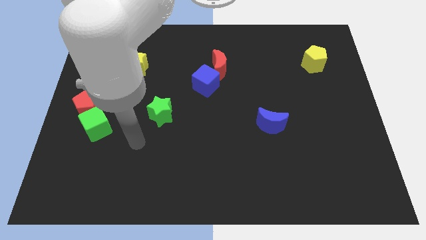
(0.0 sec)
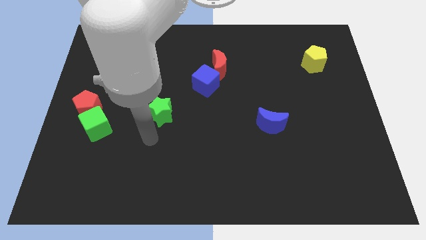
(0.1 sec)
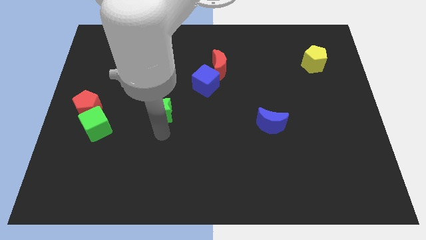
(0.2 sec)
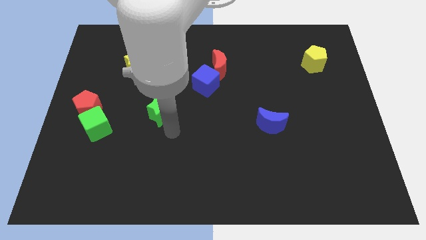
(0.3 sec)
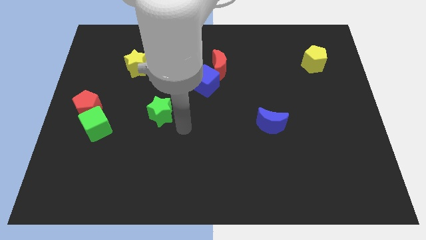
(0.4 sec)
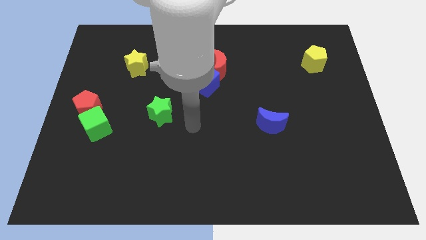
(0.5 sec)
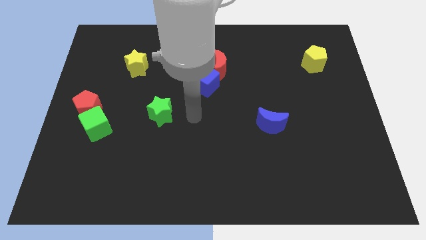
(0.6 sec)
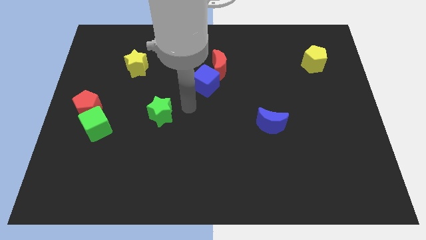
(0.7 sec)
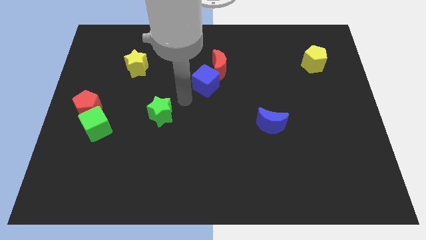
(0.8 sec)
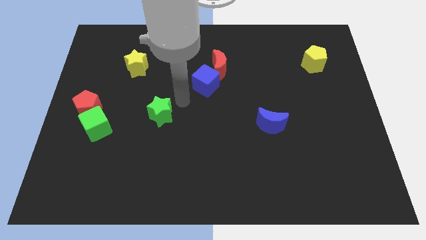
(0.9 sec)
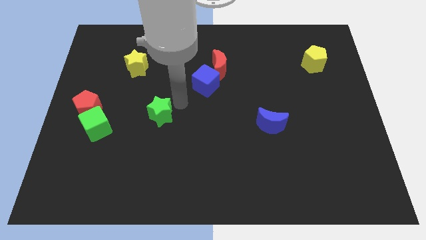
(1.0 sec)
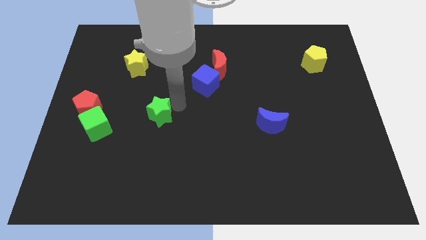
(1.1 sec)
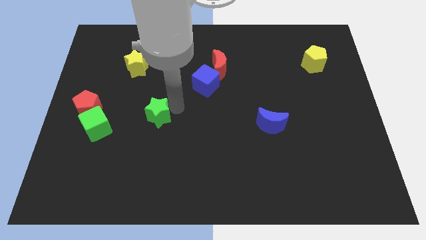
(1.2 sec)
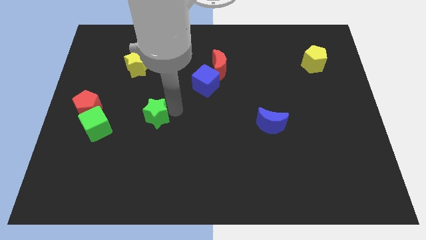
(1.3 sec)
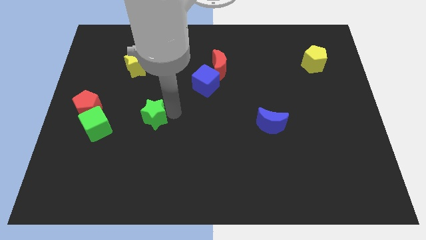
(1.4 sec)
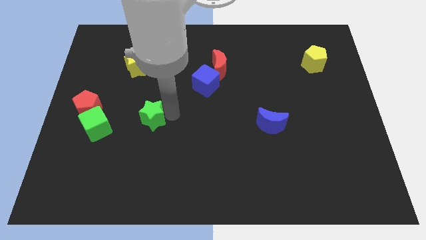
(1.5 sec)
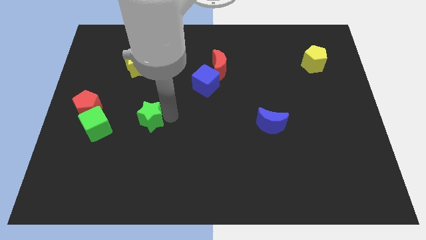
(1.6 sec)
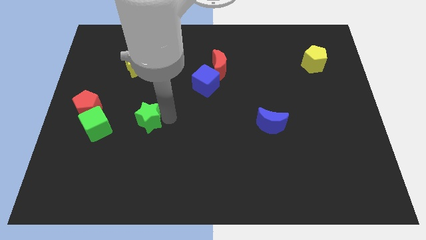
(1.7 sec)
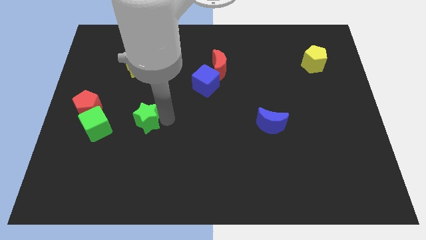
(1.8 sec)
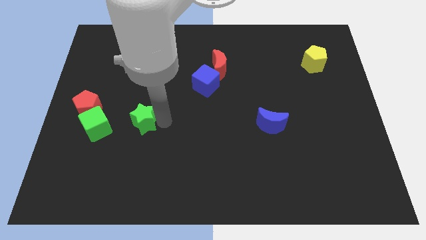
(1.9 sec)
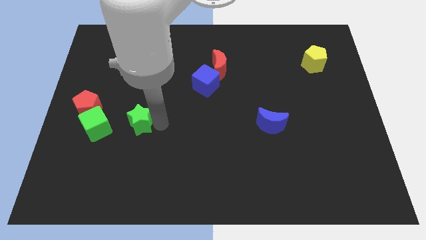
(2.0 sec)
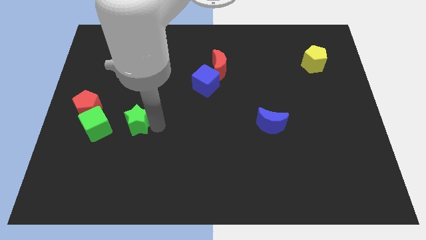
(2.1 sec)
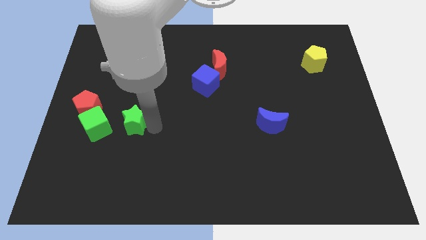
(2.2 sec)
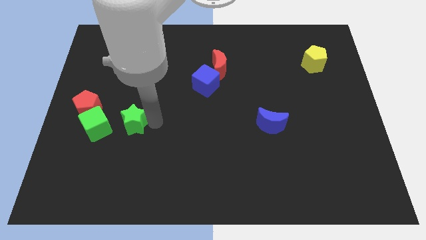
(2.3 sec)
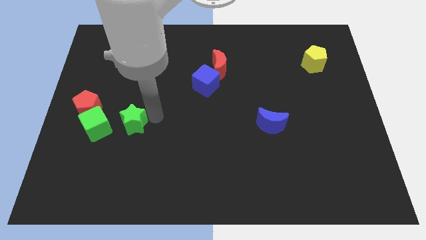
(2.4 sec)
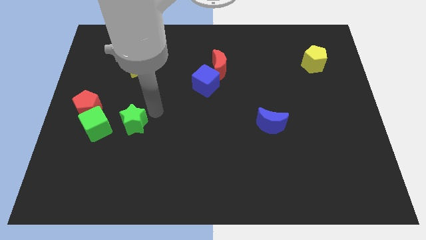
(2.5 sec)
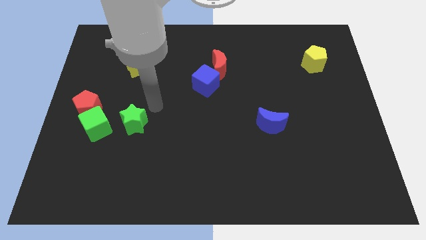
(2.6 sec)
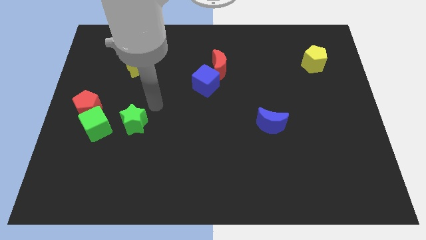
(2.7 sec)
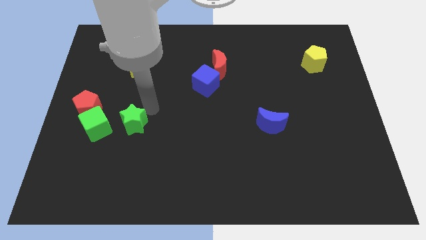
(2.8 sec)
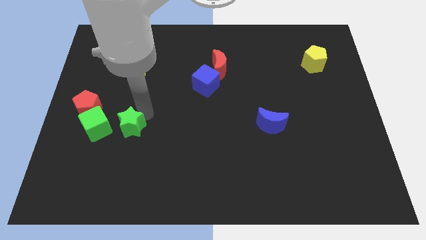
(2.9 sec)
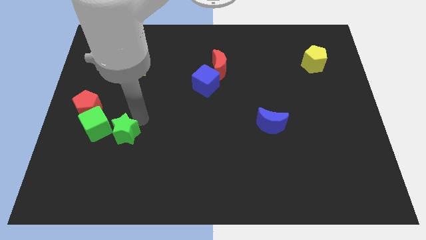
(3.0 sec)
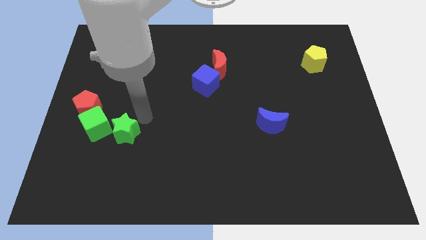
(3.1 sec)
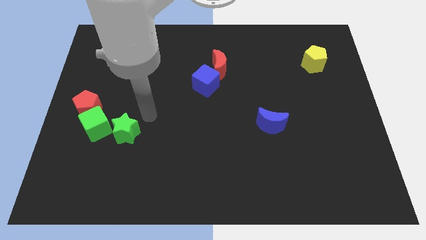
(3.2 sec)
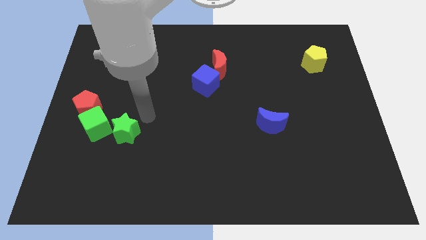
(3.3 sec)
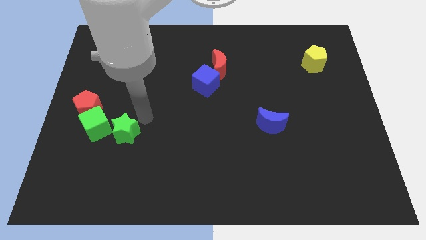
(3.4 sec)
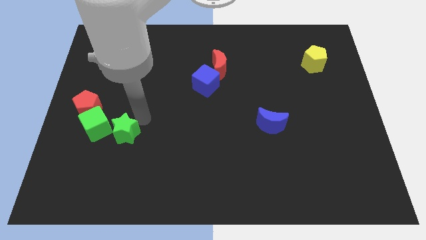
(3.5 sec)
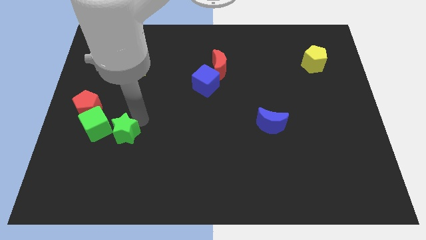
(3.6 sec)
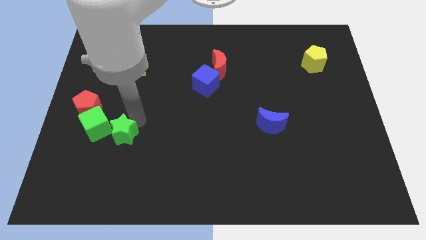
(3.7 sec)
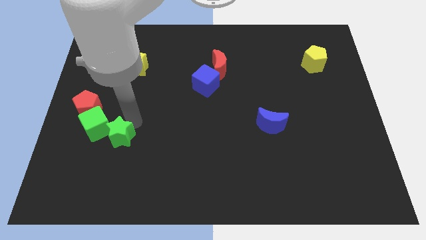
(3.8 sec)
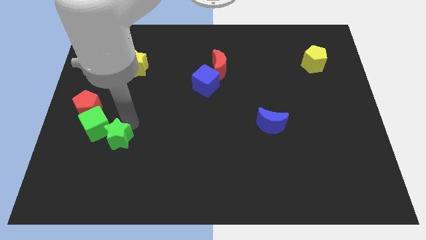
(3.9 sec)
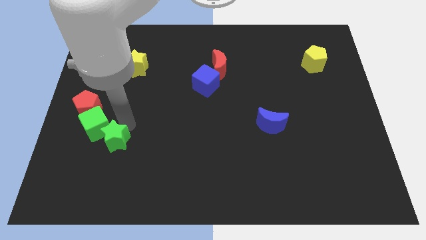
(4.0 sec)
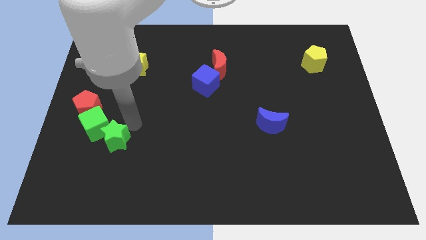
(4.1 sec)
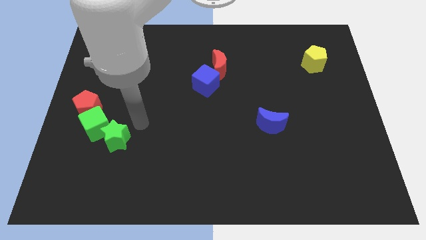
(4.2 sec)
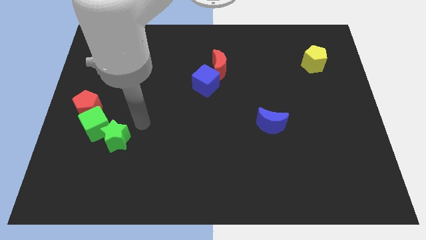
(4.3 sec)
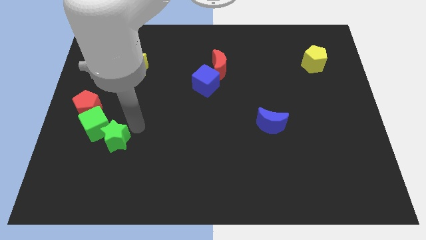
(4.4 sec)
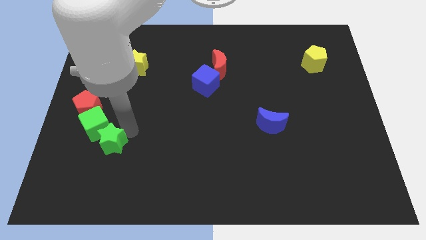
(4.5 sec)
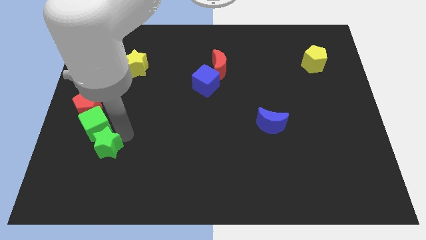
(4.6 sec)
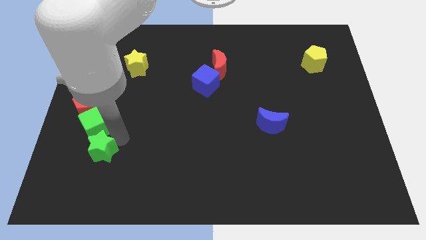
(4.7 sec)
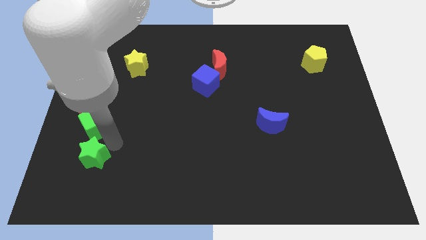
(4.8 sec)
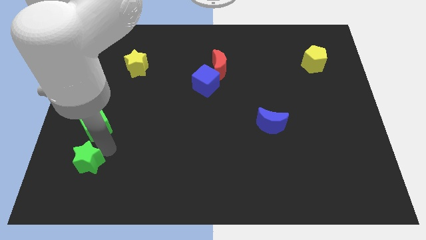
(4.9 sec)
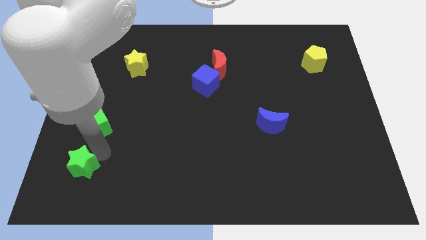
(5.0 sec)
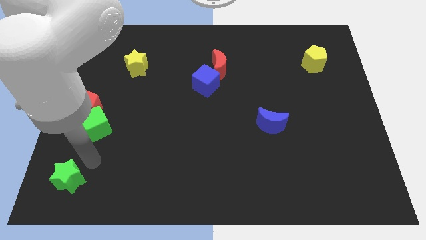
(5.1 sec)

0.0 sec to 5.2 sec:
slide the green star to the bottom left corner

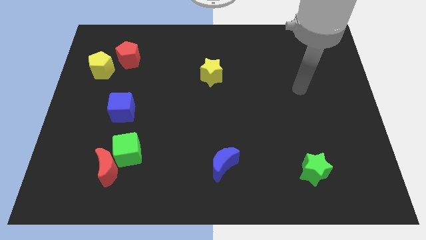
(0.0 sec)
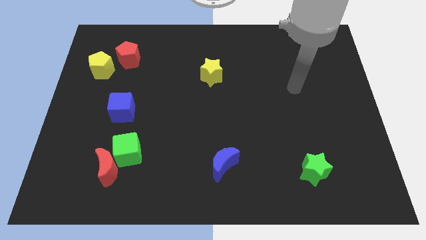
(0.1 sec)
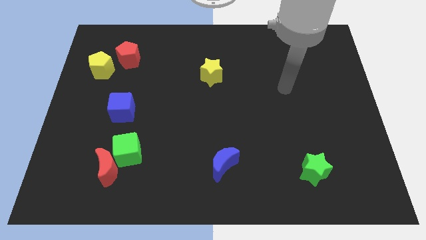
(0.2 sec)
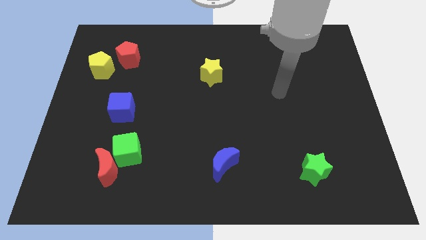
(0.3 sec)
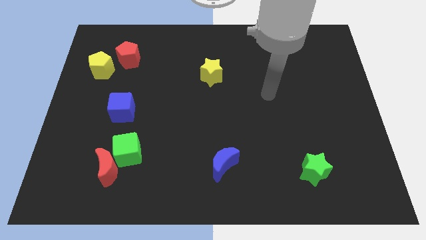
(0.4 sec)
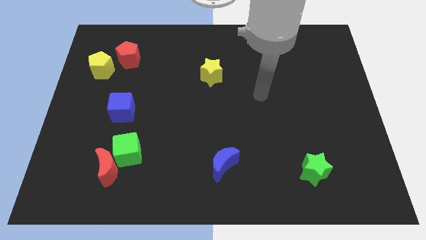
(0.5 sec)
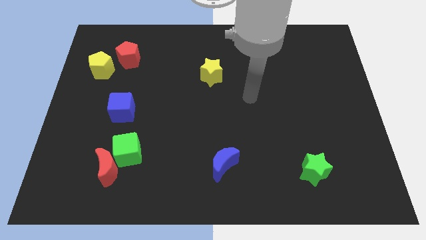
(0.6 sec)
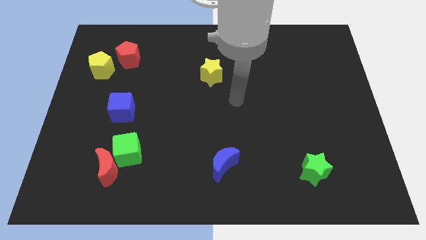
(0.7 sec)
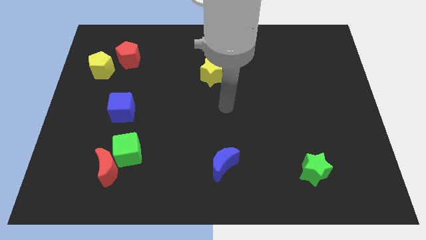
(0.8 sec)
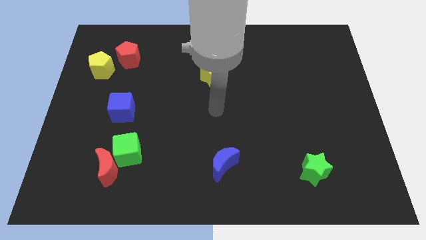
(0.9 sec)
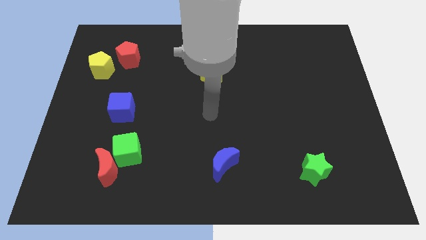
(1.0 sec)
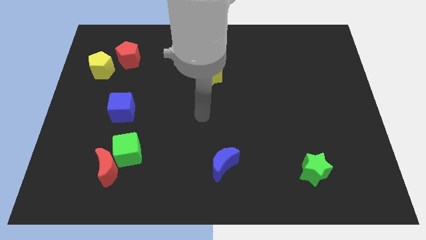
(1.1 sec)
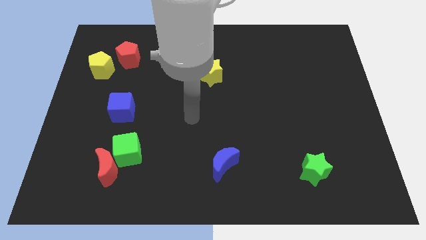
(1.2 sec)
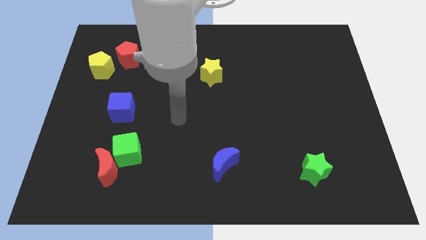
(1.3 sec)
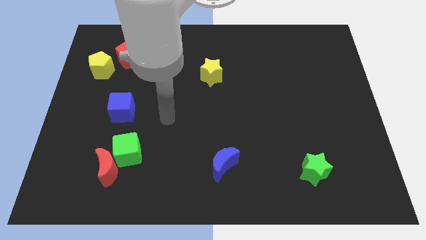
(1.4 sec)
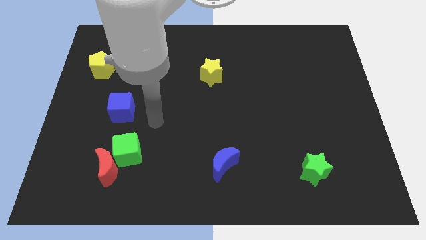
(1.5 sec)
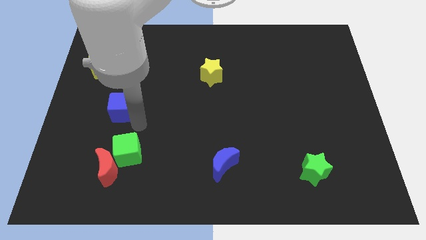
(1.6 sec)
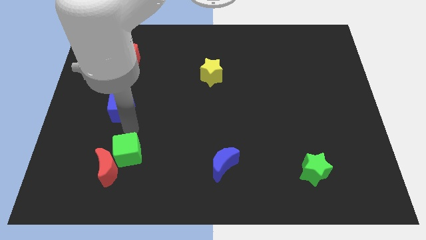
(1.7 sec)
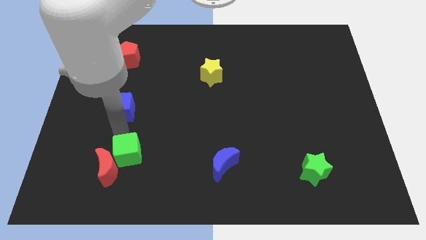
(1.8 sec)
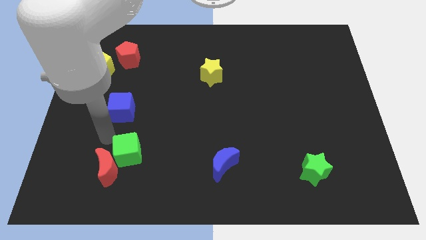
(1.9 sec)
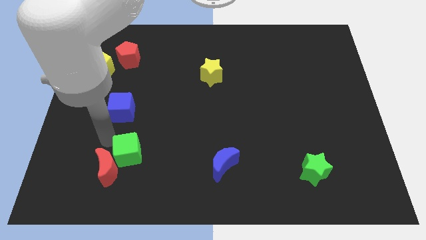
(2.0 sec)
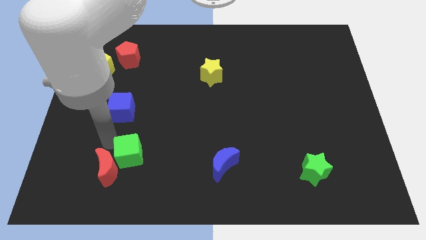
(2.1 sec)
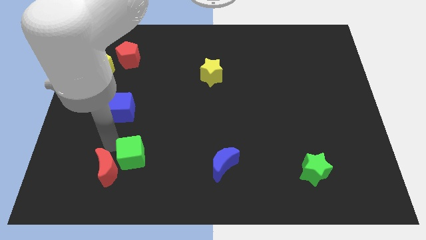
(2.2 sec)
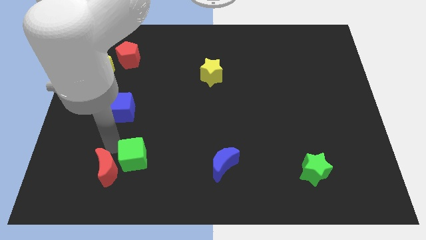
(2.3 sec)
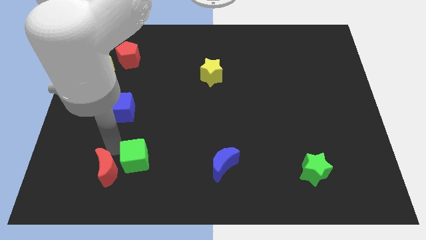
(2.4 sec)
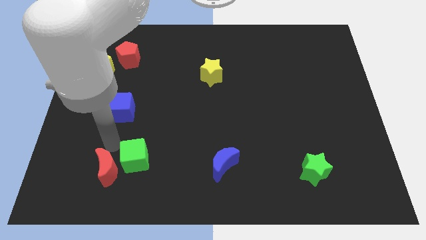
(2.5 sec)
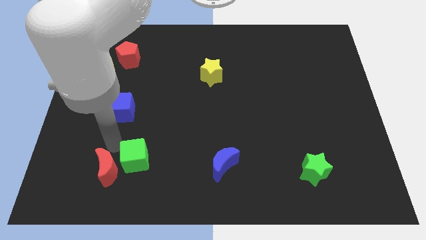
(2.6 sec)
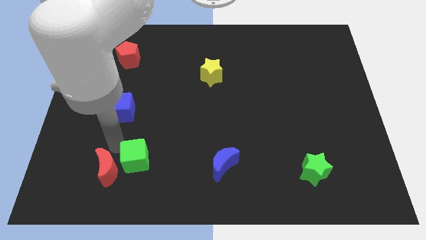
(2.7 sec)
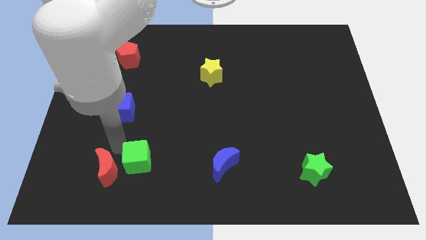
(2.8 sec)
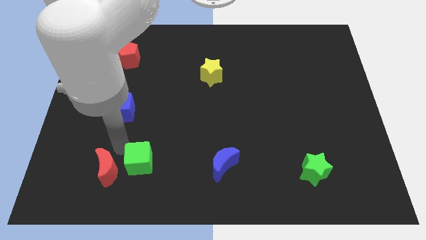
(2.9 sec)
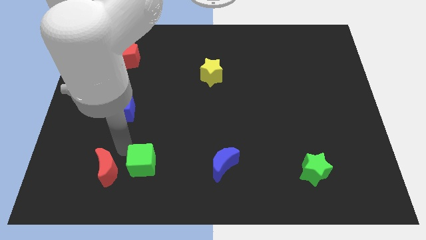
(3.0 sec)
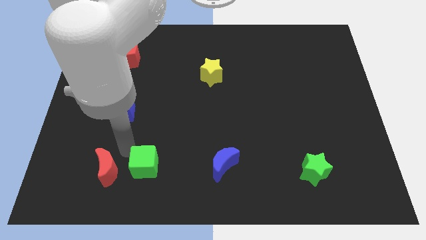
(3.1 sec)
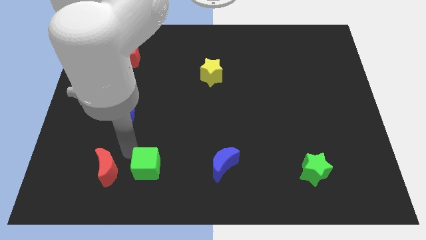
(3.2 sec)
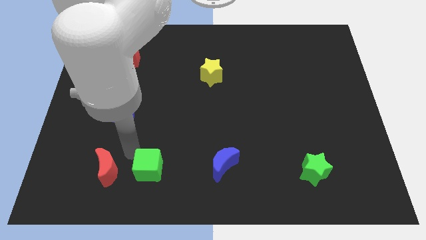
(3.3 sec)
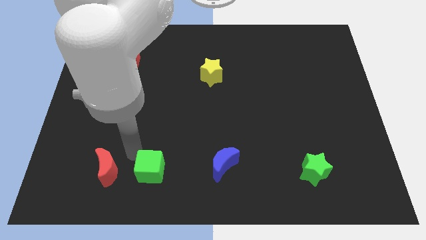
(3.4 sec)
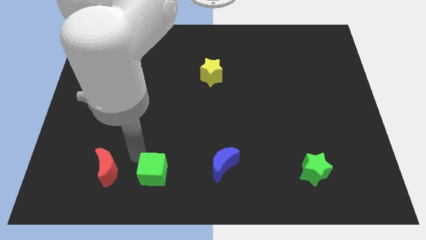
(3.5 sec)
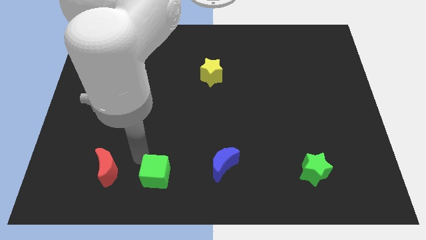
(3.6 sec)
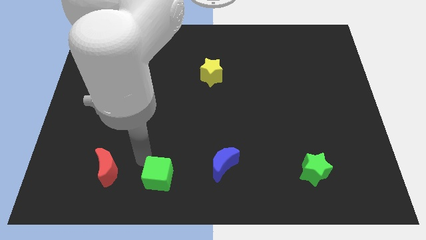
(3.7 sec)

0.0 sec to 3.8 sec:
slide the green cube to the bottom side
